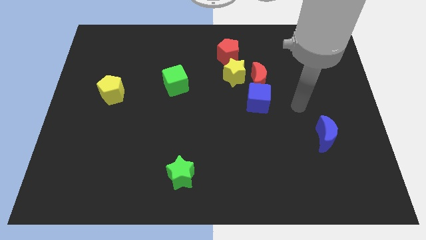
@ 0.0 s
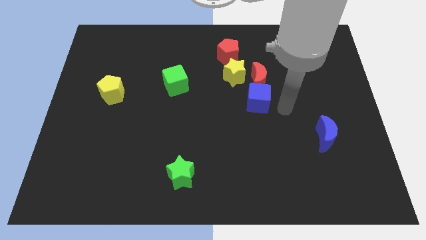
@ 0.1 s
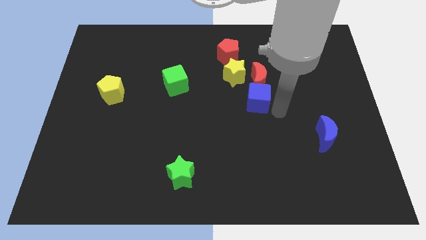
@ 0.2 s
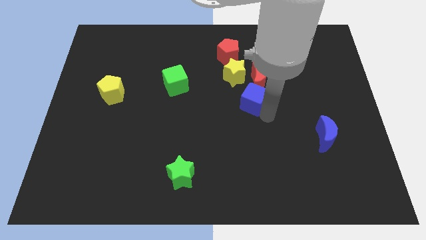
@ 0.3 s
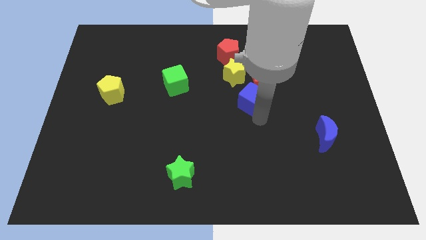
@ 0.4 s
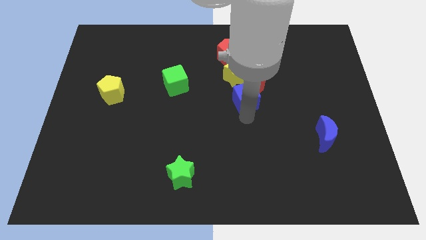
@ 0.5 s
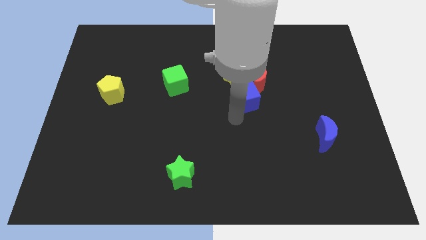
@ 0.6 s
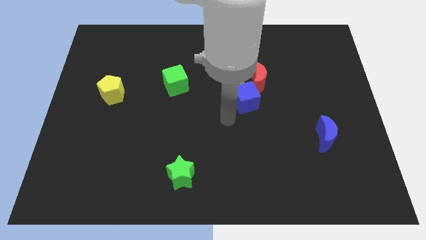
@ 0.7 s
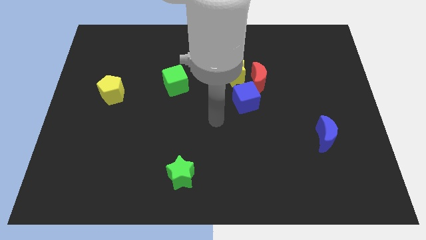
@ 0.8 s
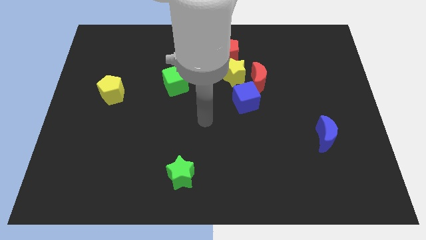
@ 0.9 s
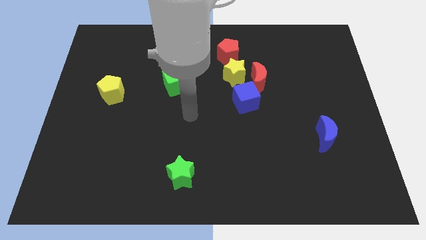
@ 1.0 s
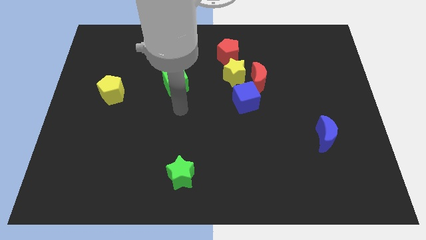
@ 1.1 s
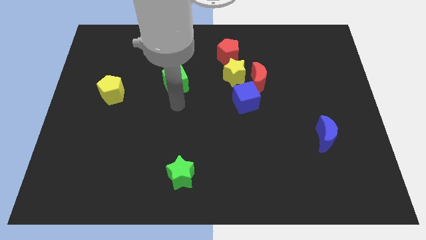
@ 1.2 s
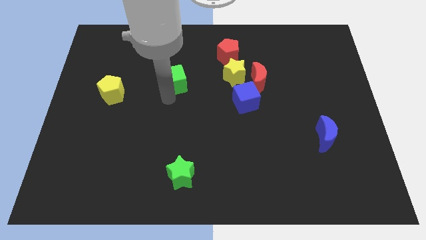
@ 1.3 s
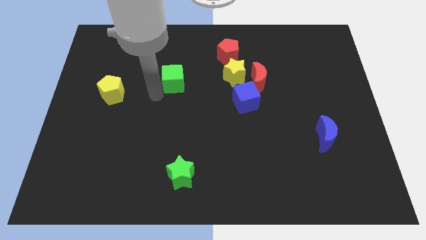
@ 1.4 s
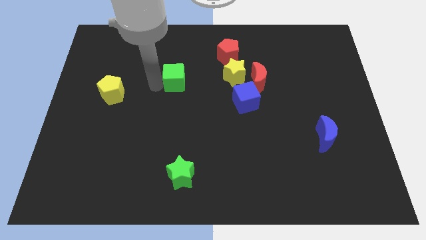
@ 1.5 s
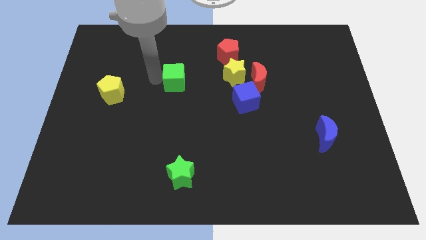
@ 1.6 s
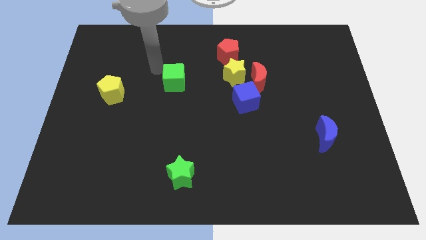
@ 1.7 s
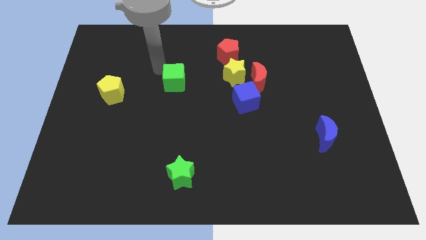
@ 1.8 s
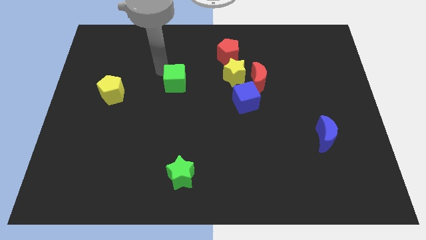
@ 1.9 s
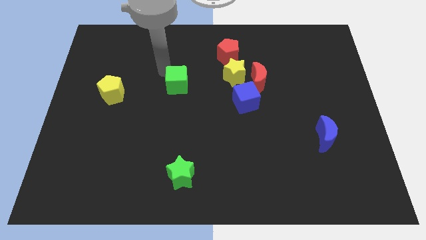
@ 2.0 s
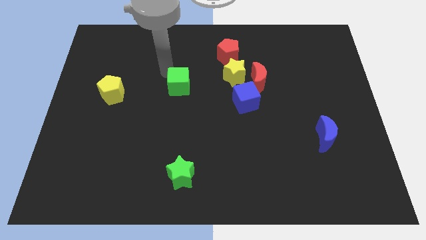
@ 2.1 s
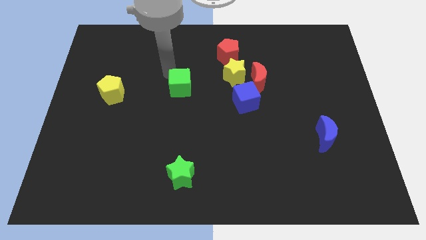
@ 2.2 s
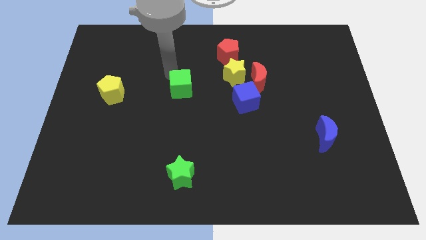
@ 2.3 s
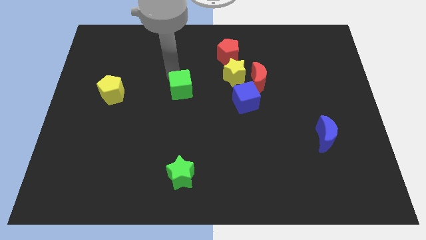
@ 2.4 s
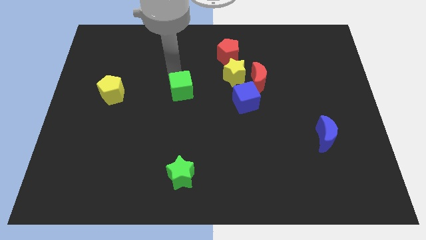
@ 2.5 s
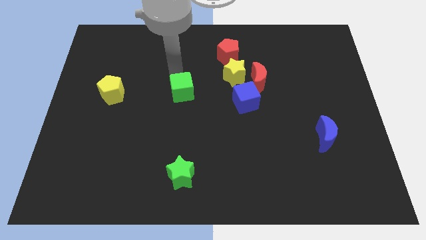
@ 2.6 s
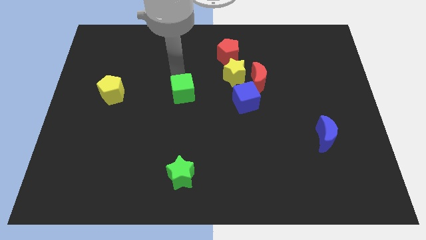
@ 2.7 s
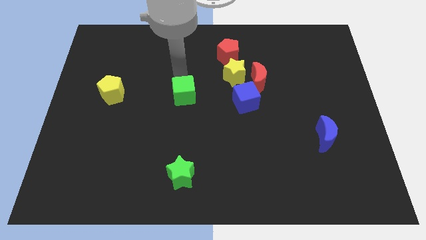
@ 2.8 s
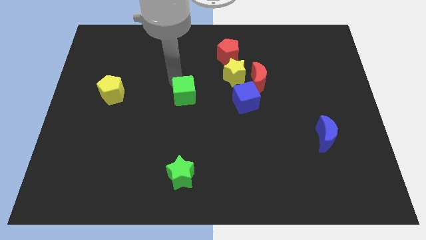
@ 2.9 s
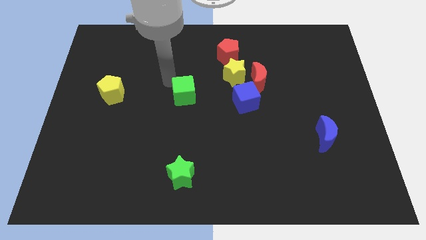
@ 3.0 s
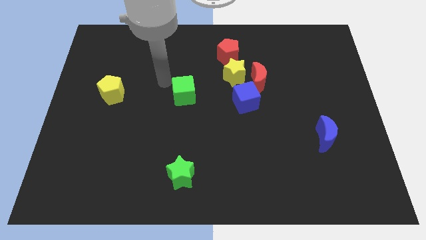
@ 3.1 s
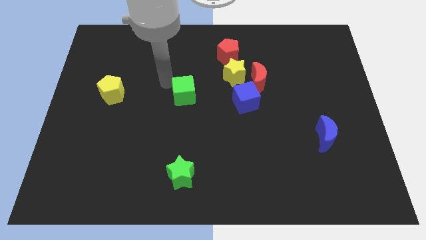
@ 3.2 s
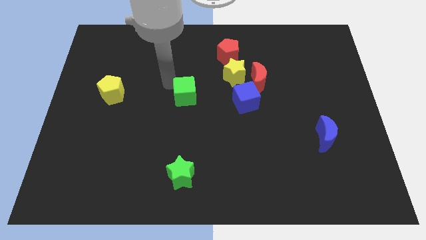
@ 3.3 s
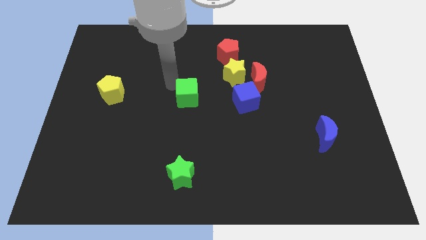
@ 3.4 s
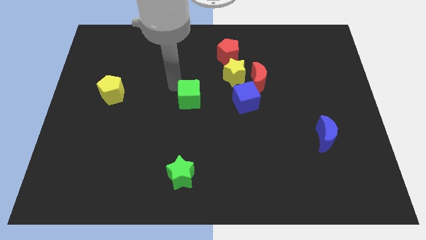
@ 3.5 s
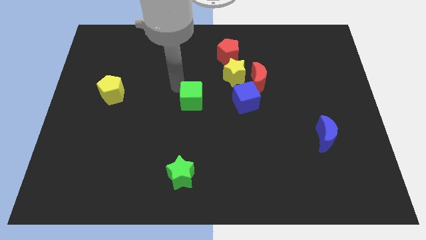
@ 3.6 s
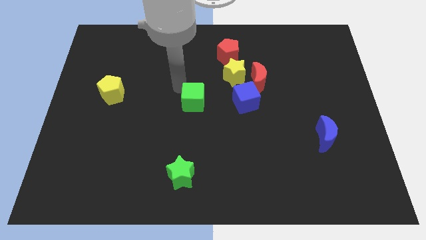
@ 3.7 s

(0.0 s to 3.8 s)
move the green cube downwards and to the right diagonally a bit

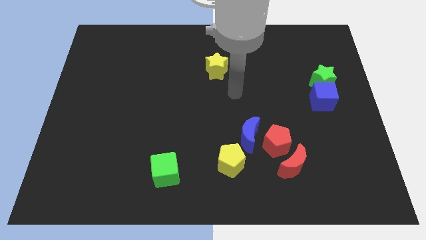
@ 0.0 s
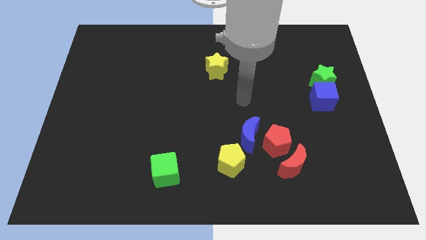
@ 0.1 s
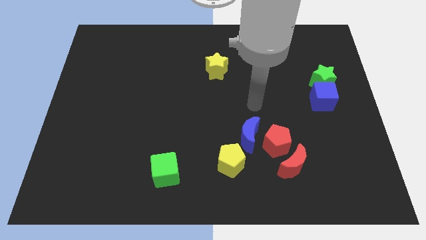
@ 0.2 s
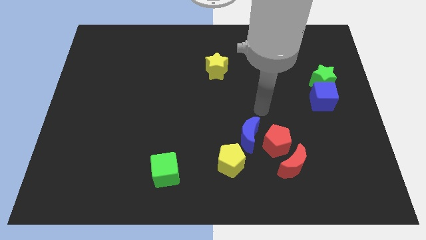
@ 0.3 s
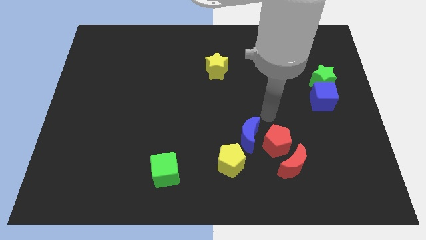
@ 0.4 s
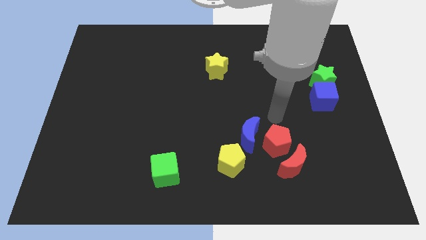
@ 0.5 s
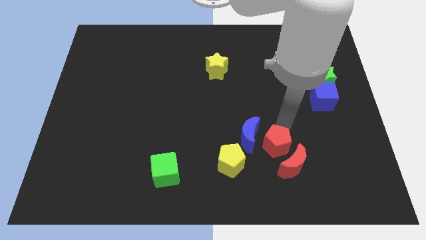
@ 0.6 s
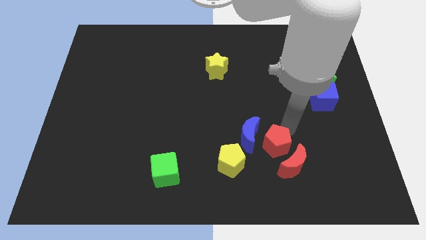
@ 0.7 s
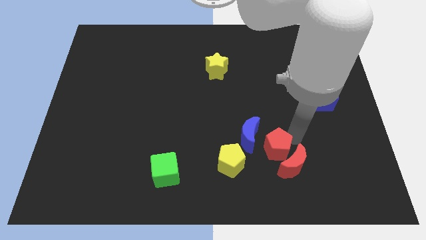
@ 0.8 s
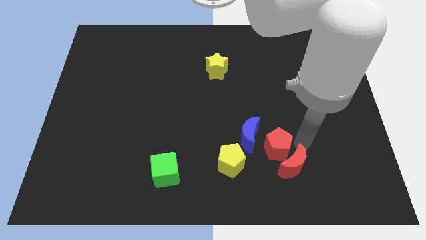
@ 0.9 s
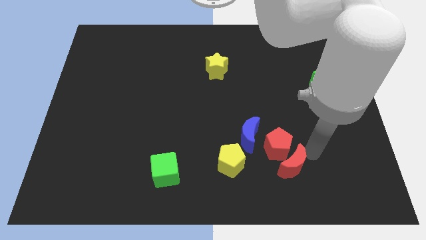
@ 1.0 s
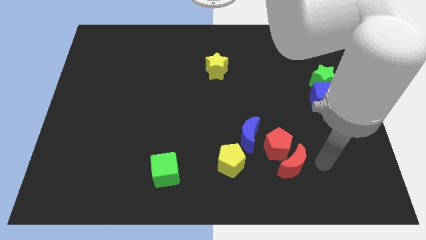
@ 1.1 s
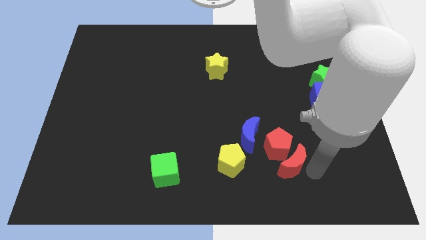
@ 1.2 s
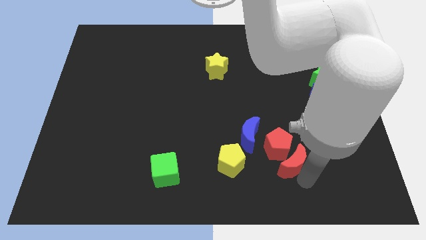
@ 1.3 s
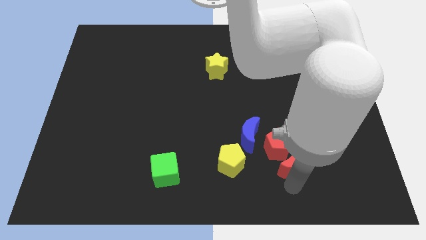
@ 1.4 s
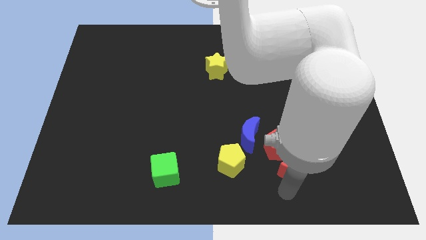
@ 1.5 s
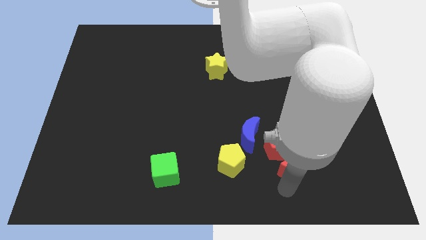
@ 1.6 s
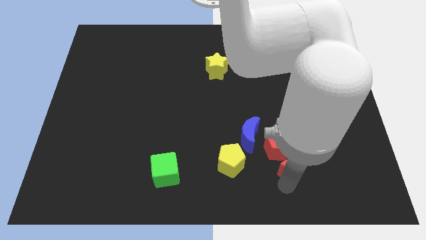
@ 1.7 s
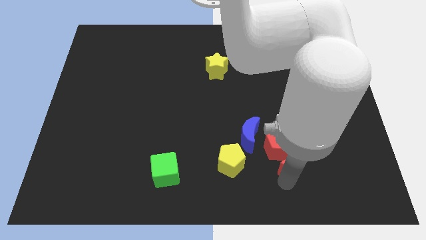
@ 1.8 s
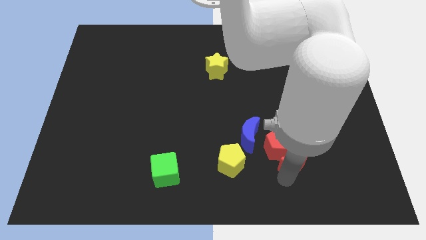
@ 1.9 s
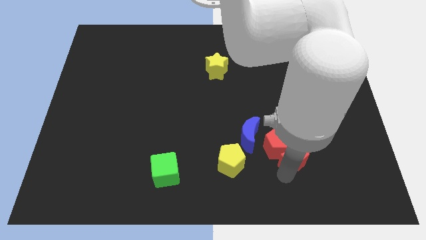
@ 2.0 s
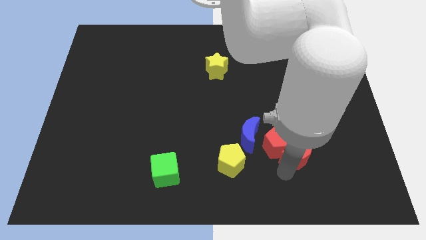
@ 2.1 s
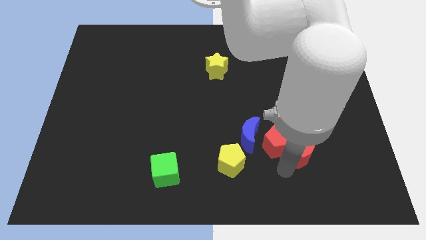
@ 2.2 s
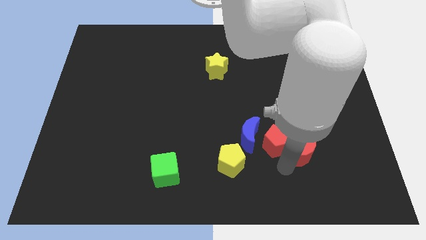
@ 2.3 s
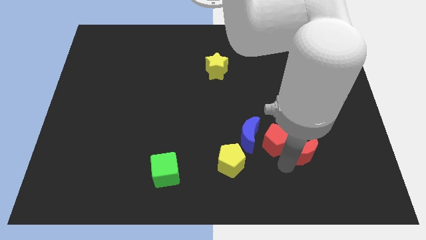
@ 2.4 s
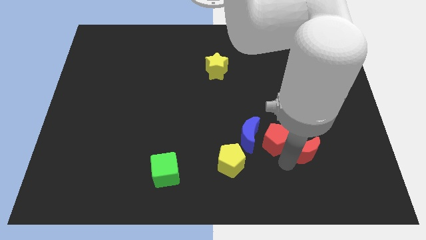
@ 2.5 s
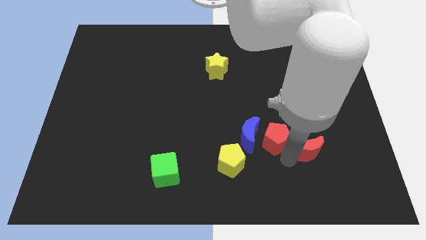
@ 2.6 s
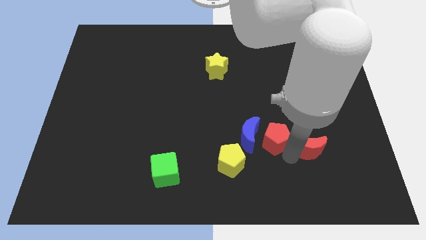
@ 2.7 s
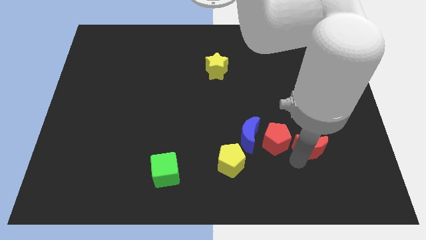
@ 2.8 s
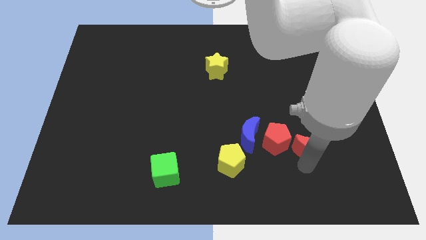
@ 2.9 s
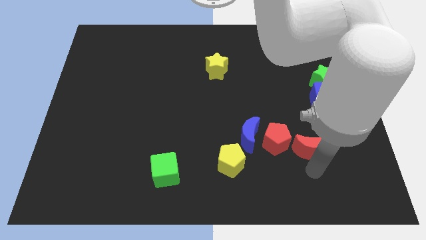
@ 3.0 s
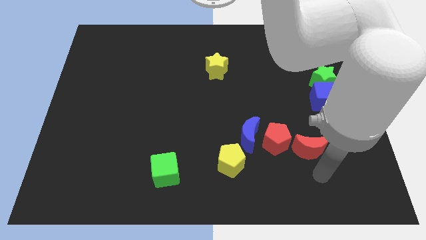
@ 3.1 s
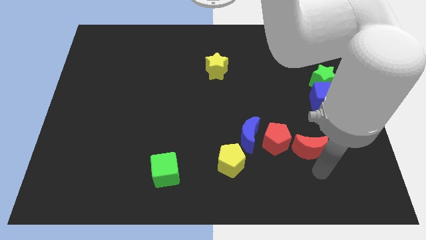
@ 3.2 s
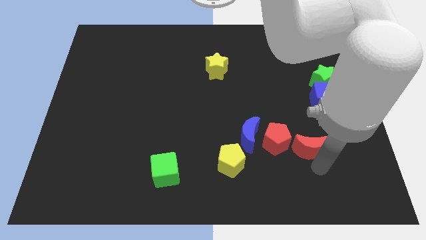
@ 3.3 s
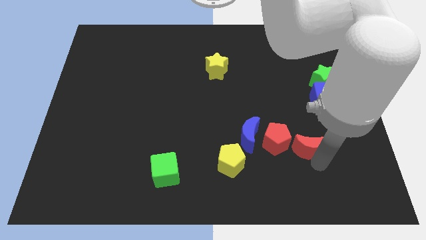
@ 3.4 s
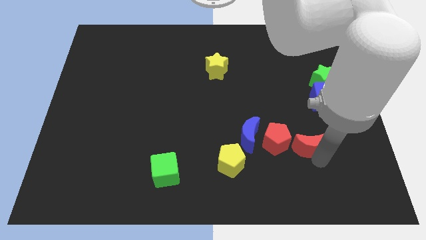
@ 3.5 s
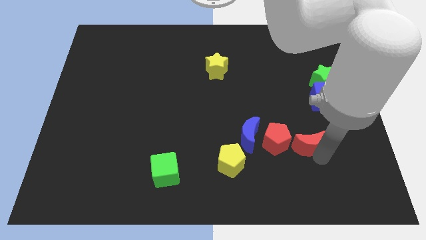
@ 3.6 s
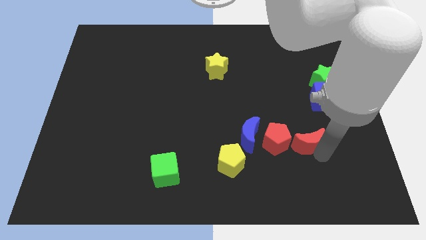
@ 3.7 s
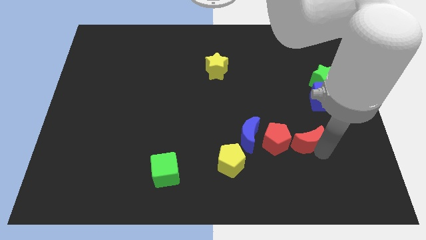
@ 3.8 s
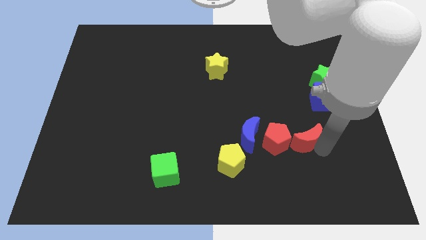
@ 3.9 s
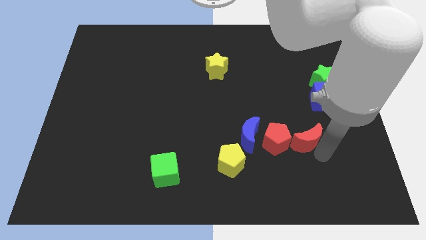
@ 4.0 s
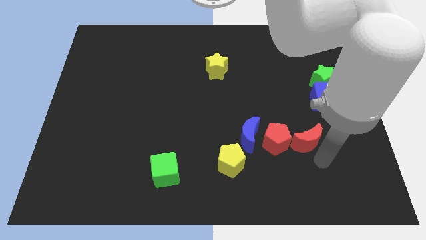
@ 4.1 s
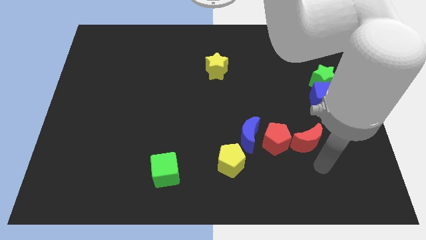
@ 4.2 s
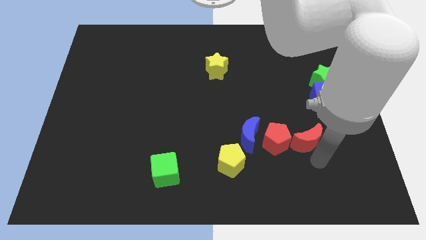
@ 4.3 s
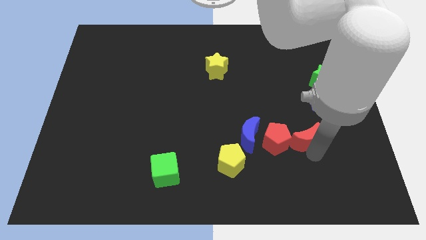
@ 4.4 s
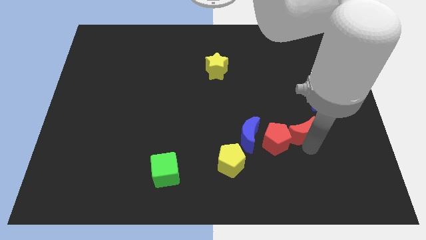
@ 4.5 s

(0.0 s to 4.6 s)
move the red moon upwards a little bit
